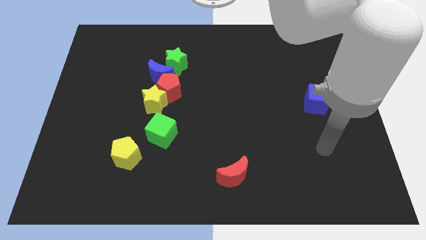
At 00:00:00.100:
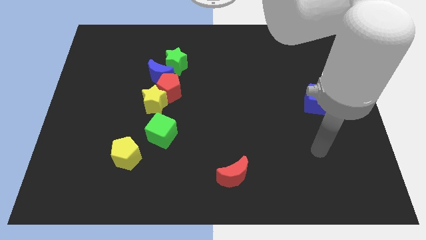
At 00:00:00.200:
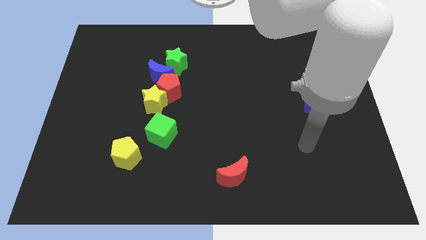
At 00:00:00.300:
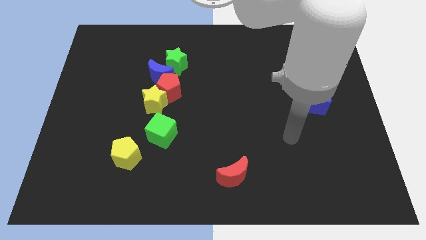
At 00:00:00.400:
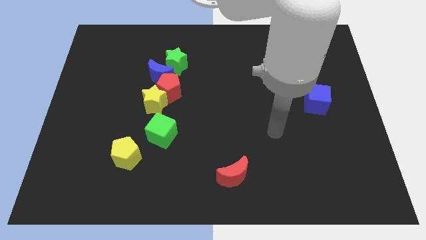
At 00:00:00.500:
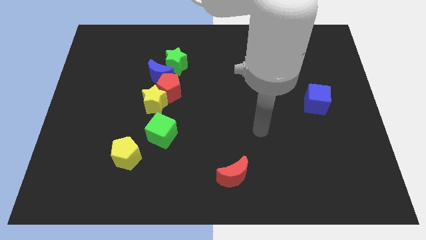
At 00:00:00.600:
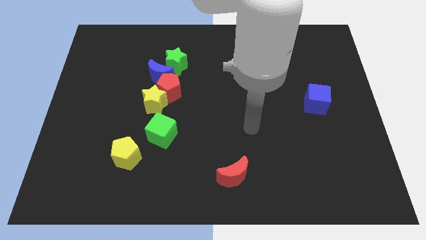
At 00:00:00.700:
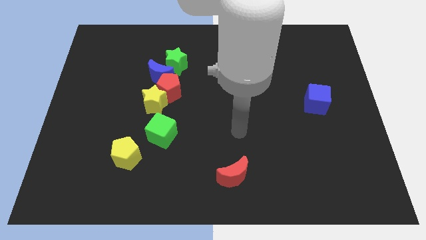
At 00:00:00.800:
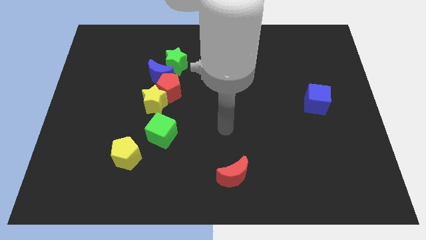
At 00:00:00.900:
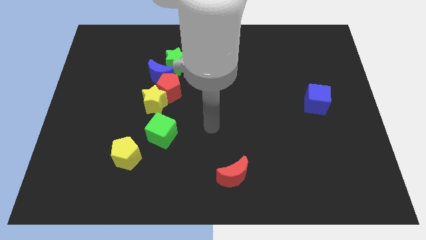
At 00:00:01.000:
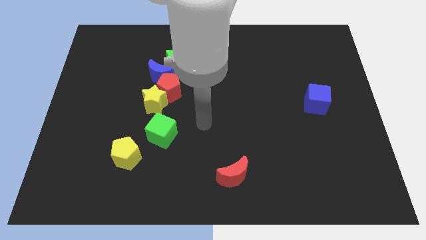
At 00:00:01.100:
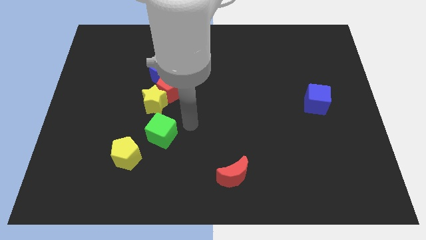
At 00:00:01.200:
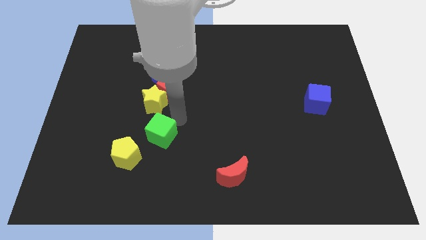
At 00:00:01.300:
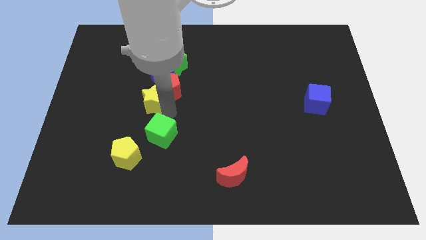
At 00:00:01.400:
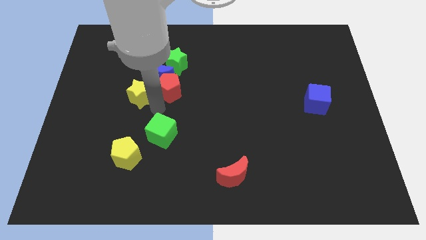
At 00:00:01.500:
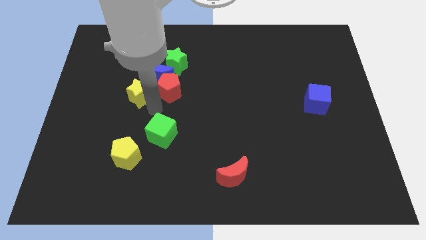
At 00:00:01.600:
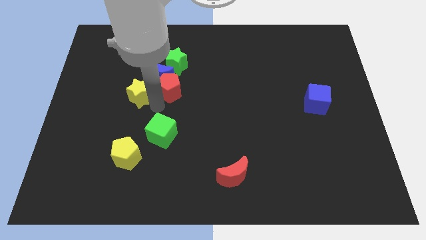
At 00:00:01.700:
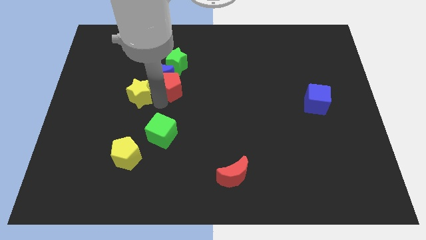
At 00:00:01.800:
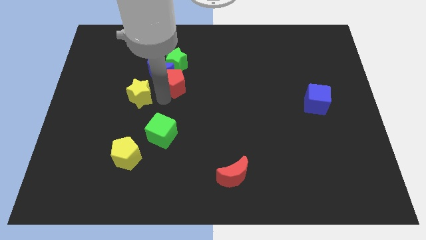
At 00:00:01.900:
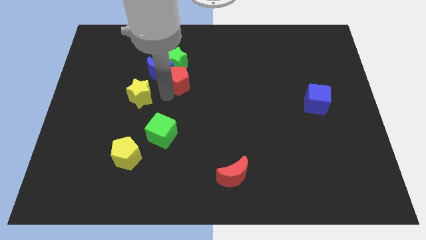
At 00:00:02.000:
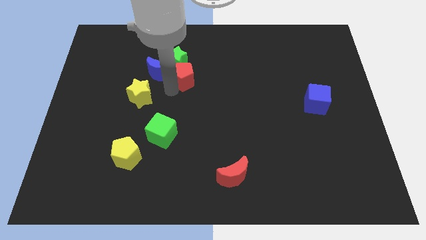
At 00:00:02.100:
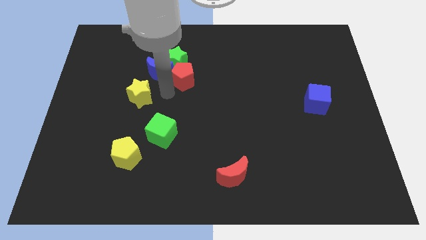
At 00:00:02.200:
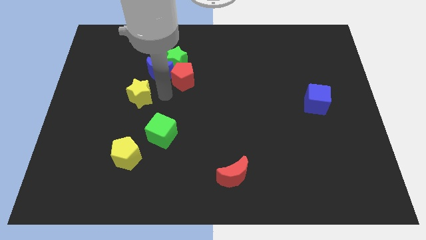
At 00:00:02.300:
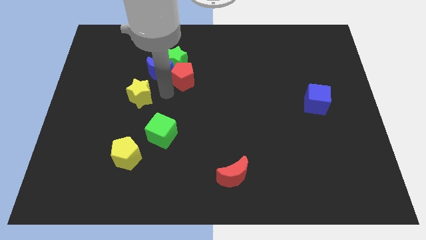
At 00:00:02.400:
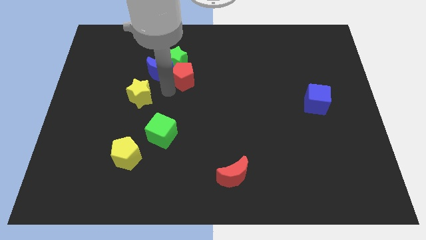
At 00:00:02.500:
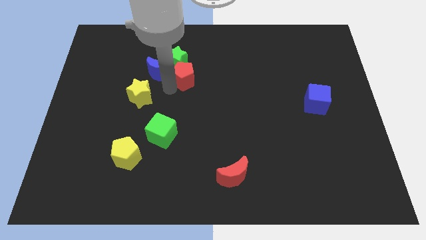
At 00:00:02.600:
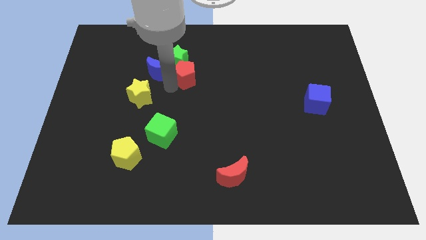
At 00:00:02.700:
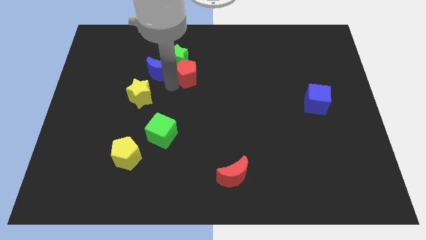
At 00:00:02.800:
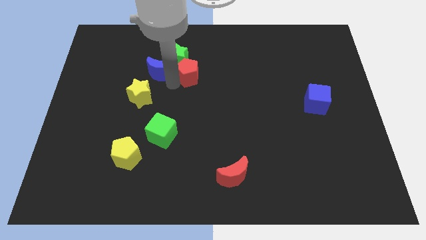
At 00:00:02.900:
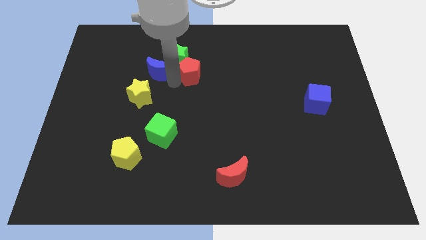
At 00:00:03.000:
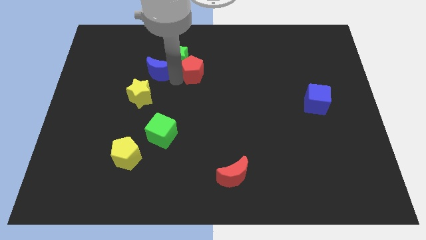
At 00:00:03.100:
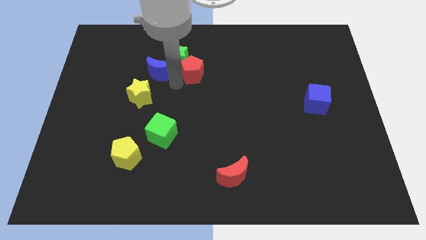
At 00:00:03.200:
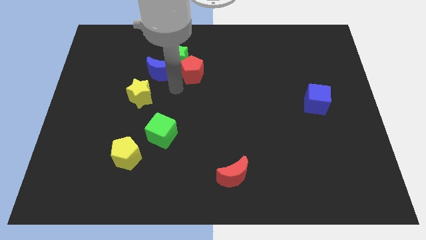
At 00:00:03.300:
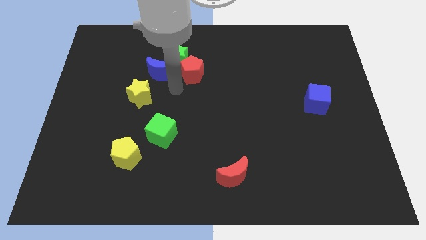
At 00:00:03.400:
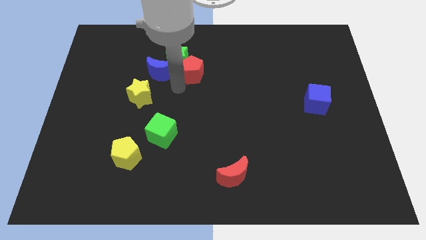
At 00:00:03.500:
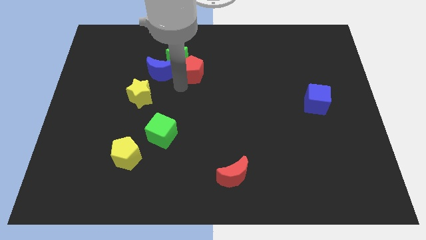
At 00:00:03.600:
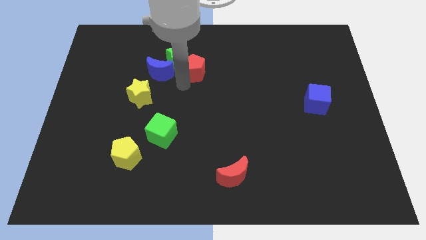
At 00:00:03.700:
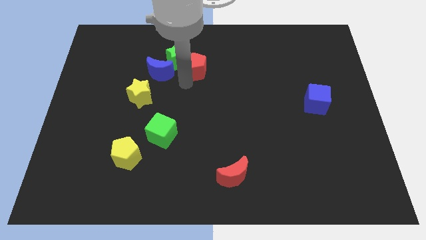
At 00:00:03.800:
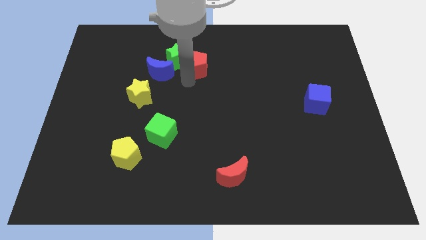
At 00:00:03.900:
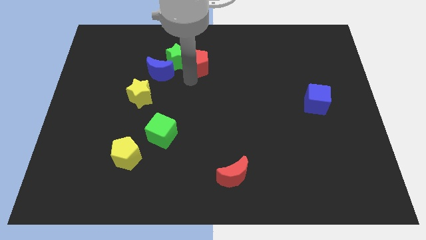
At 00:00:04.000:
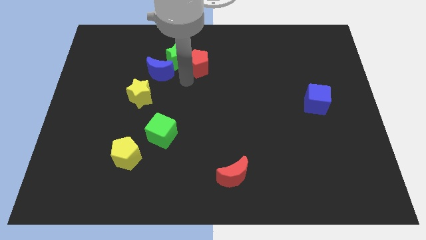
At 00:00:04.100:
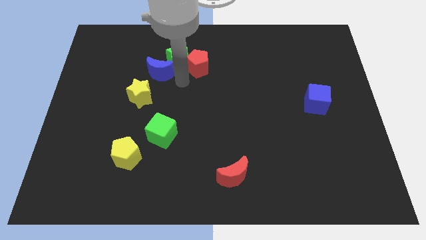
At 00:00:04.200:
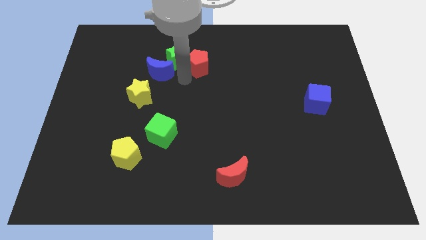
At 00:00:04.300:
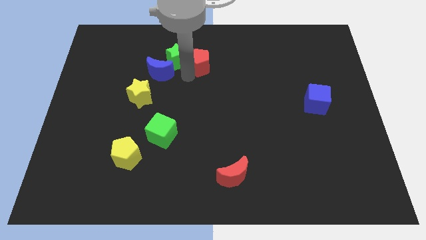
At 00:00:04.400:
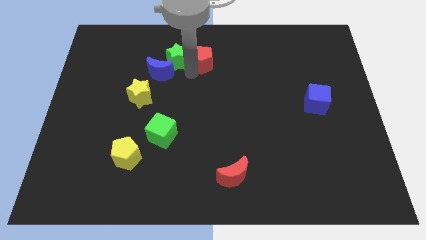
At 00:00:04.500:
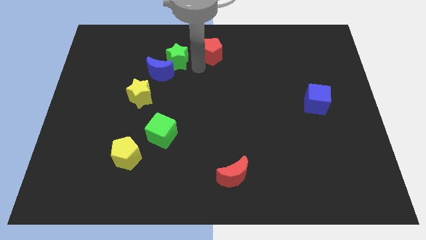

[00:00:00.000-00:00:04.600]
put the red pentagon to the top side

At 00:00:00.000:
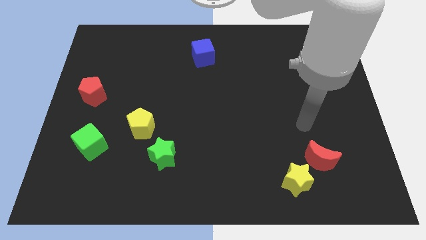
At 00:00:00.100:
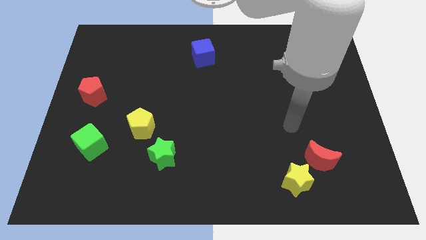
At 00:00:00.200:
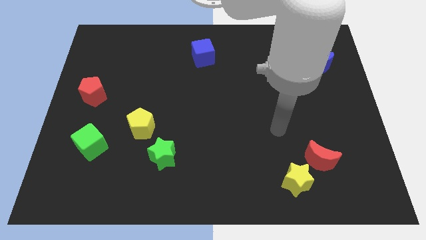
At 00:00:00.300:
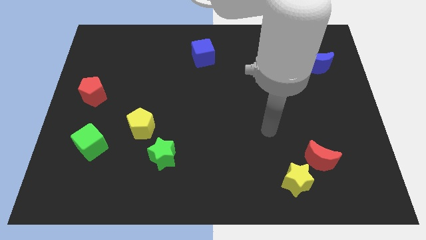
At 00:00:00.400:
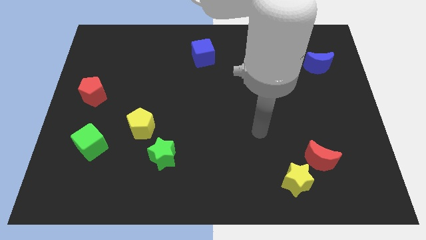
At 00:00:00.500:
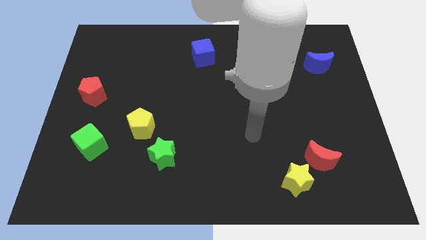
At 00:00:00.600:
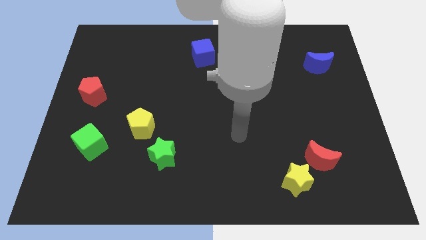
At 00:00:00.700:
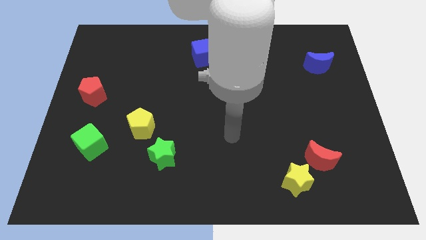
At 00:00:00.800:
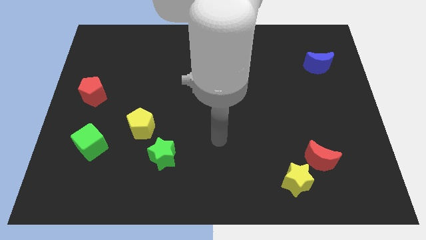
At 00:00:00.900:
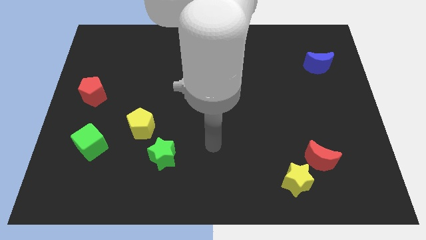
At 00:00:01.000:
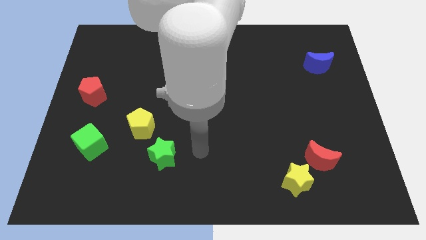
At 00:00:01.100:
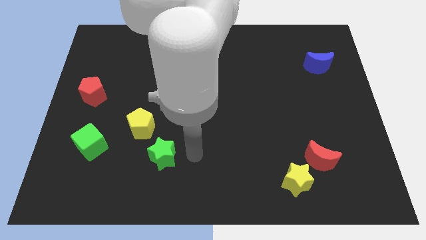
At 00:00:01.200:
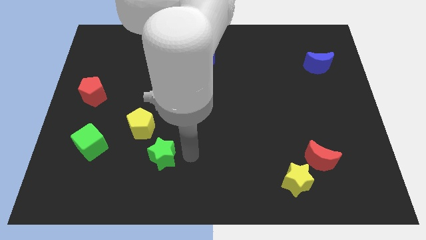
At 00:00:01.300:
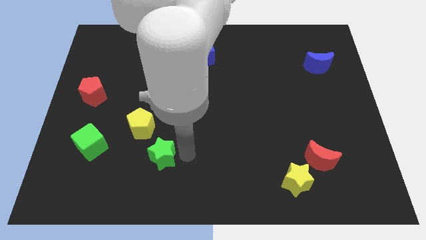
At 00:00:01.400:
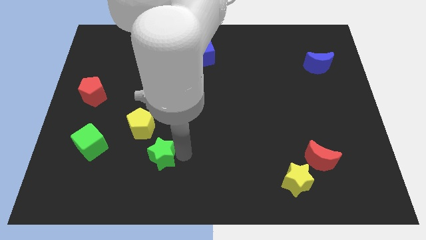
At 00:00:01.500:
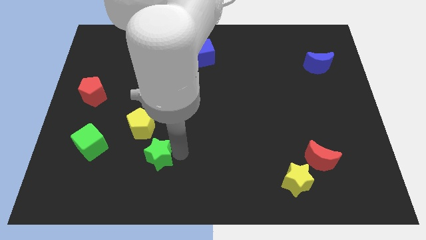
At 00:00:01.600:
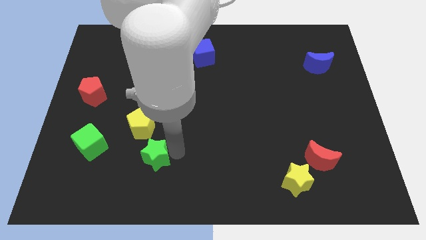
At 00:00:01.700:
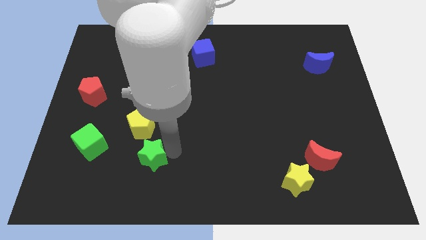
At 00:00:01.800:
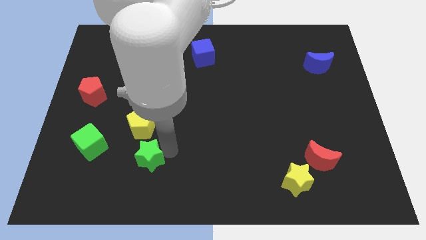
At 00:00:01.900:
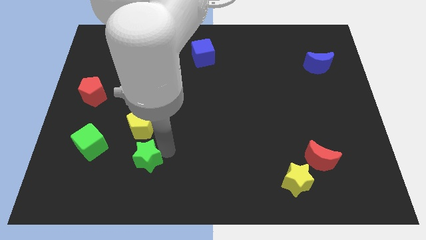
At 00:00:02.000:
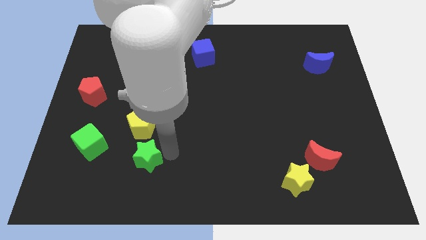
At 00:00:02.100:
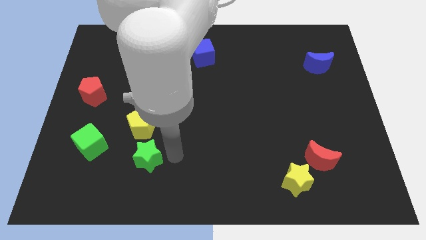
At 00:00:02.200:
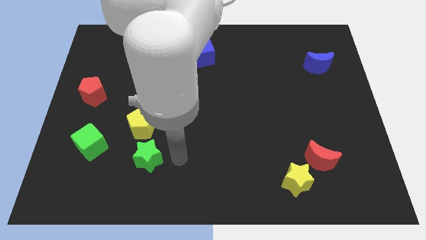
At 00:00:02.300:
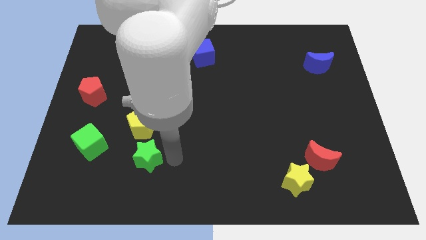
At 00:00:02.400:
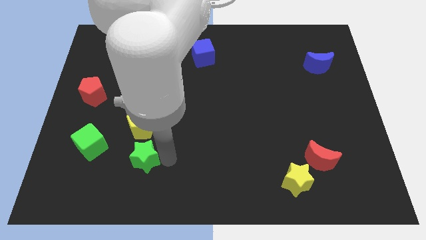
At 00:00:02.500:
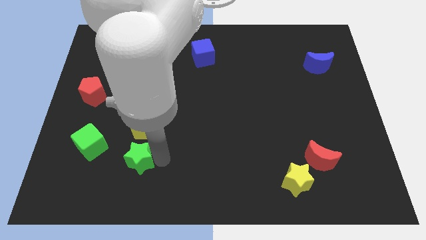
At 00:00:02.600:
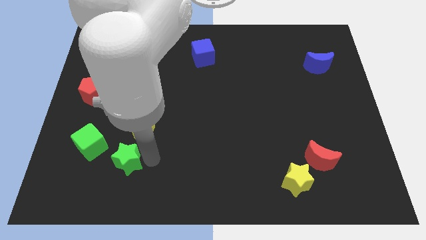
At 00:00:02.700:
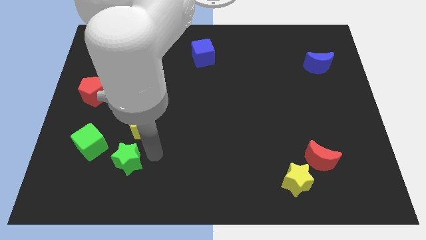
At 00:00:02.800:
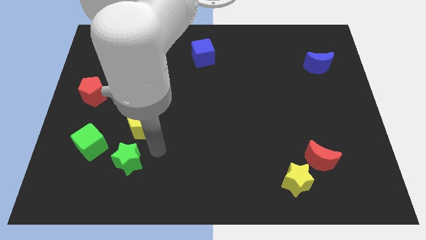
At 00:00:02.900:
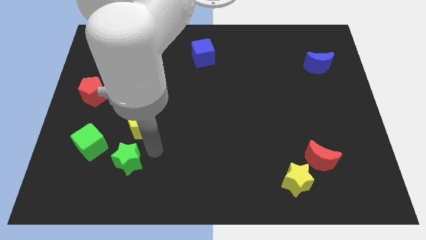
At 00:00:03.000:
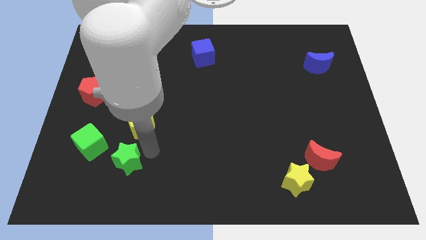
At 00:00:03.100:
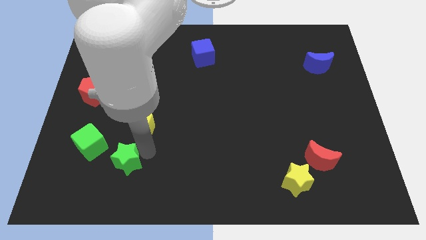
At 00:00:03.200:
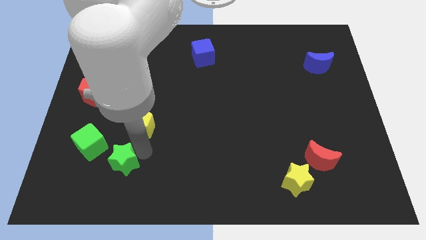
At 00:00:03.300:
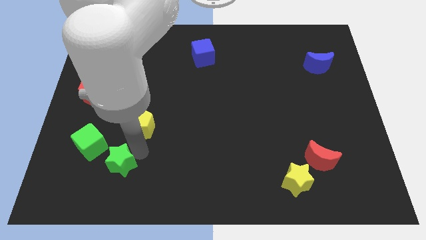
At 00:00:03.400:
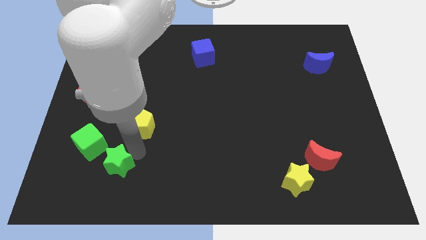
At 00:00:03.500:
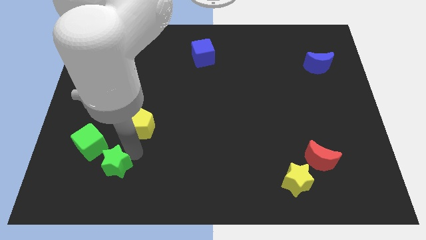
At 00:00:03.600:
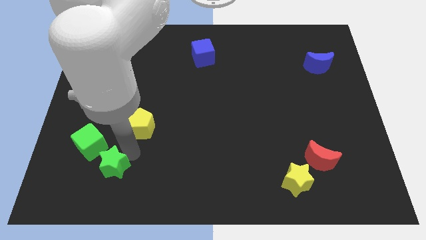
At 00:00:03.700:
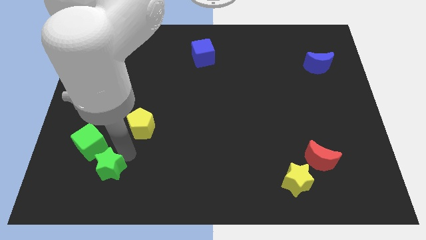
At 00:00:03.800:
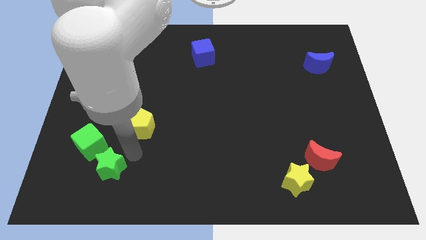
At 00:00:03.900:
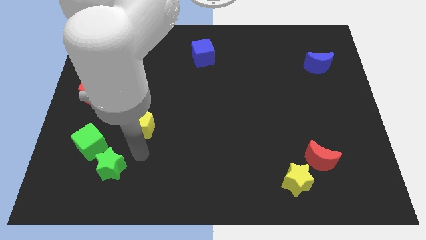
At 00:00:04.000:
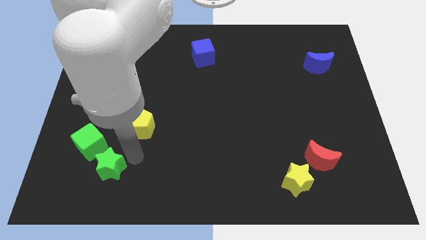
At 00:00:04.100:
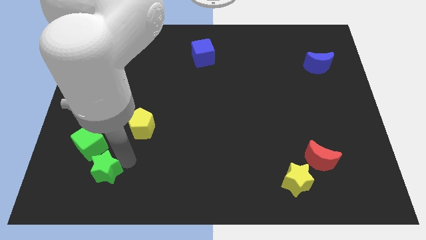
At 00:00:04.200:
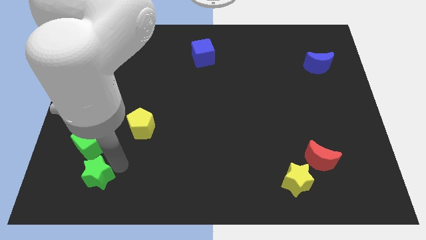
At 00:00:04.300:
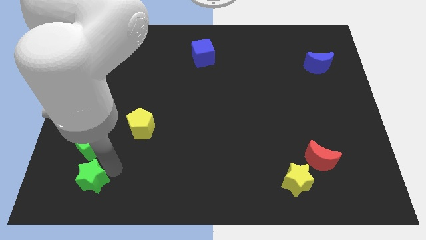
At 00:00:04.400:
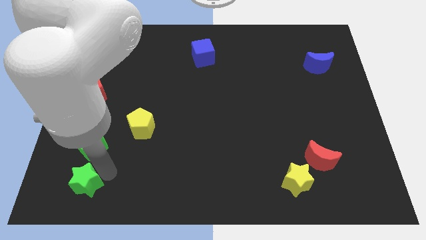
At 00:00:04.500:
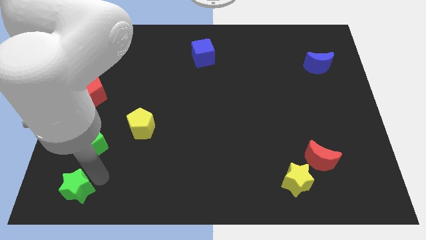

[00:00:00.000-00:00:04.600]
move the green star to the bottom left
